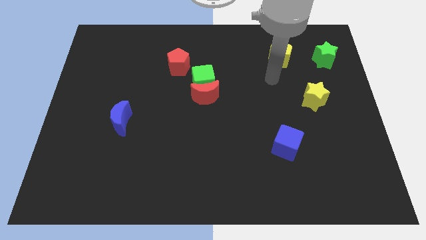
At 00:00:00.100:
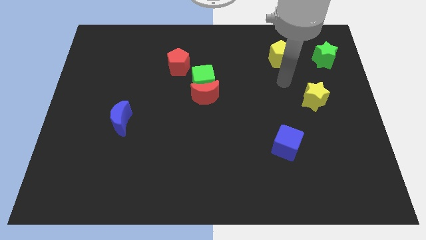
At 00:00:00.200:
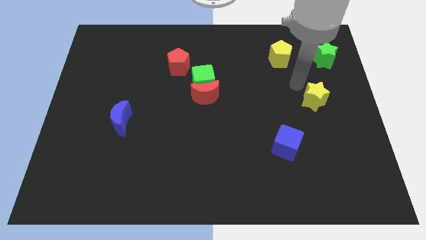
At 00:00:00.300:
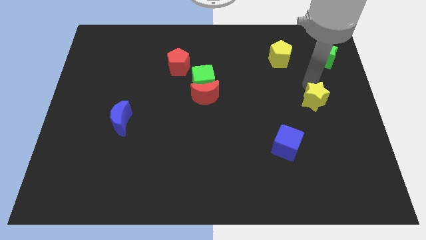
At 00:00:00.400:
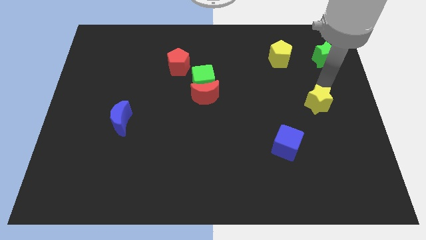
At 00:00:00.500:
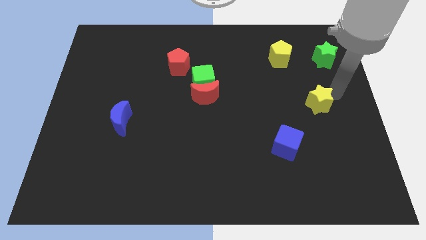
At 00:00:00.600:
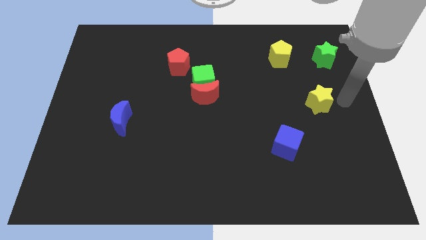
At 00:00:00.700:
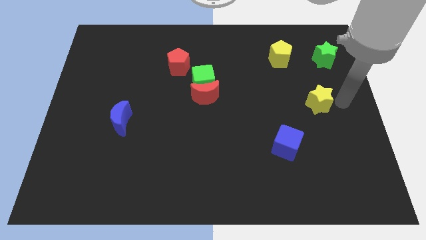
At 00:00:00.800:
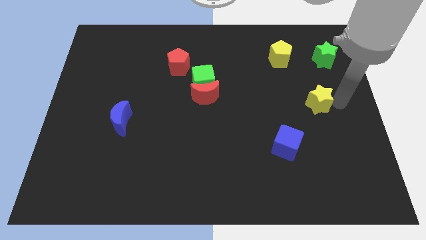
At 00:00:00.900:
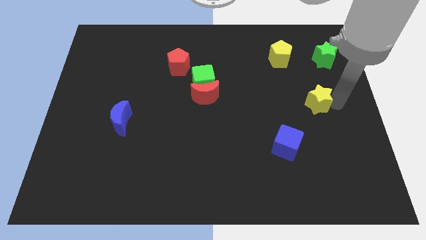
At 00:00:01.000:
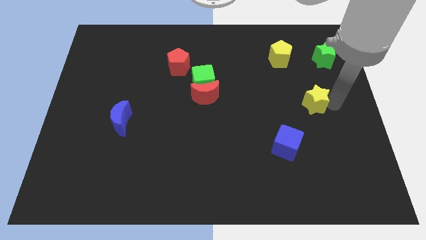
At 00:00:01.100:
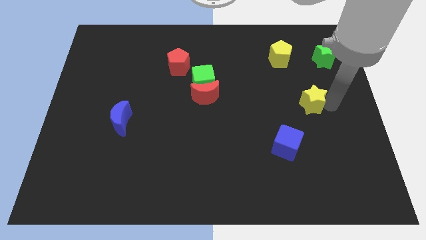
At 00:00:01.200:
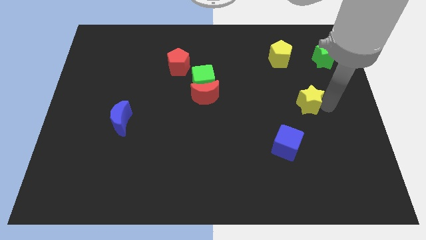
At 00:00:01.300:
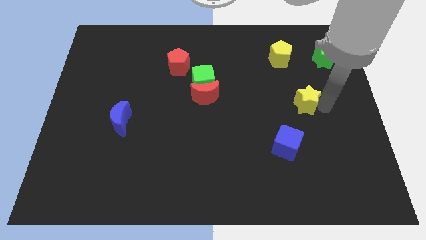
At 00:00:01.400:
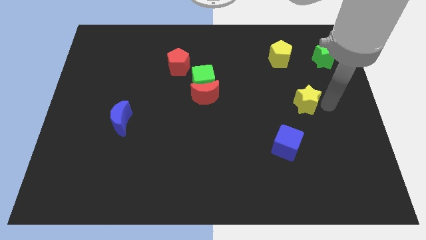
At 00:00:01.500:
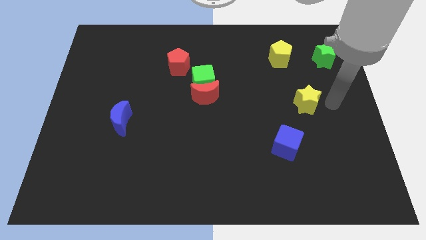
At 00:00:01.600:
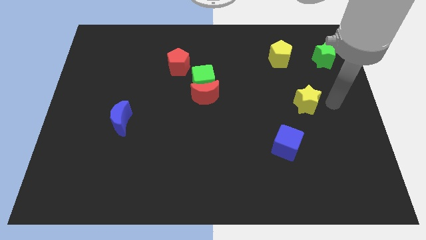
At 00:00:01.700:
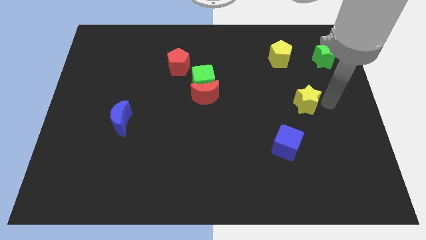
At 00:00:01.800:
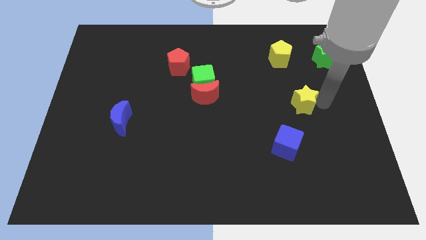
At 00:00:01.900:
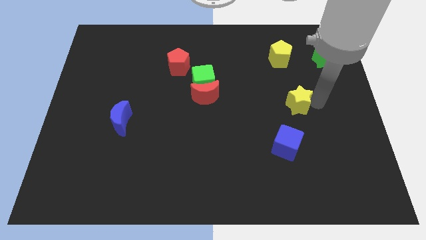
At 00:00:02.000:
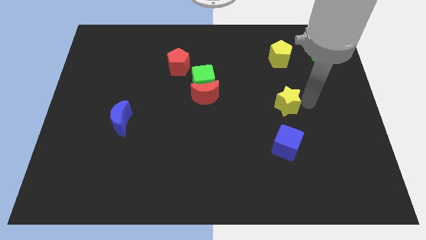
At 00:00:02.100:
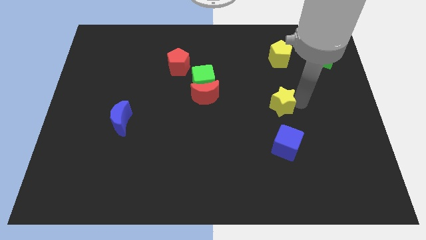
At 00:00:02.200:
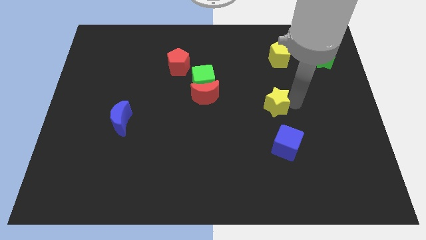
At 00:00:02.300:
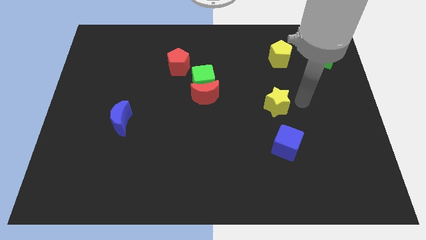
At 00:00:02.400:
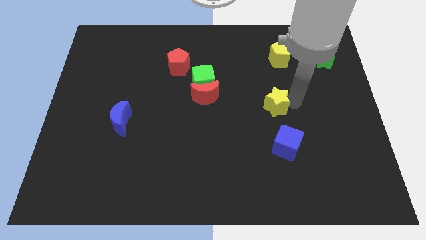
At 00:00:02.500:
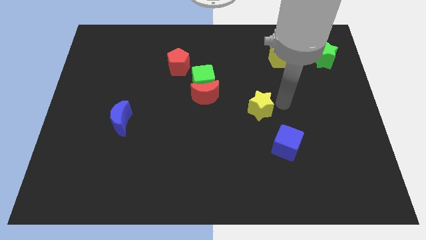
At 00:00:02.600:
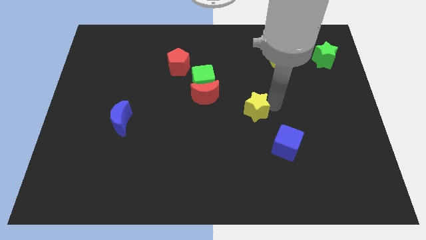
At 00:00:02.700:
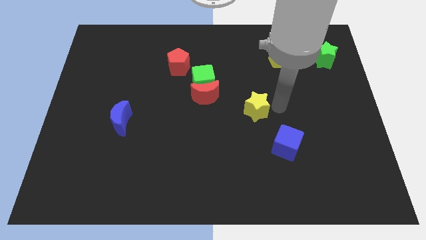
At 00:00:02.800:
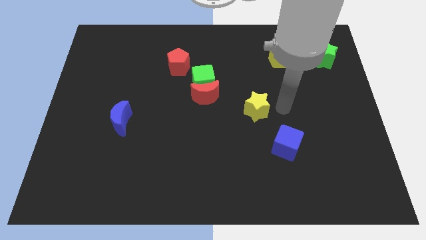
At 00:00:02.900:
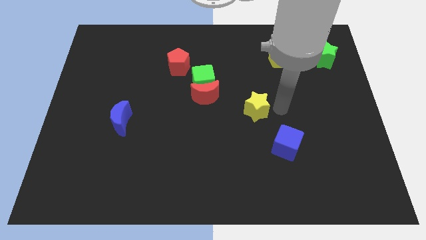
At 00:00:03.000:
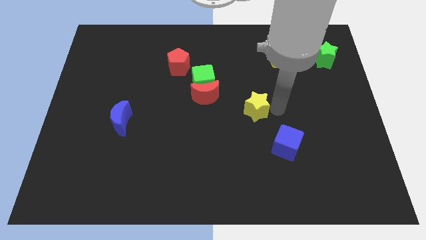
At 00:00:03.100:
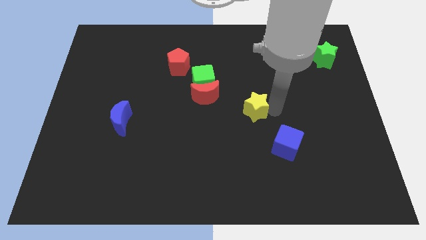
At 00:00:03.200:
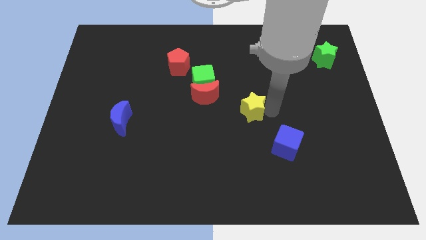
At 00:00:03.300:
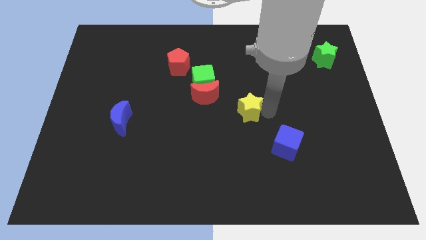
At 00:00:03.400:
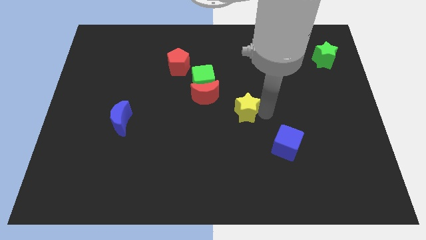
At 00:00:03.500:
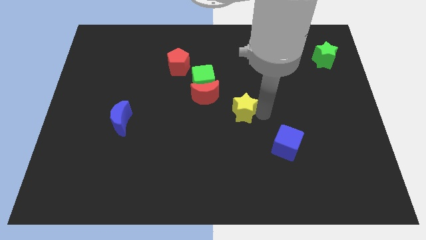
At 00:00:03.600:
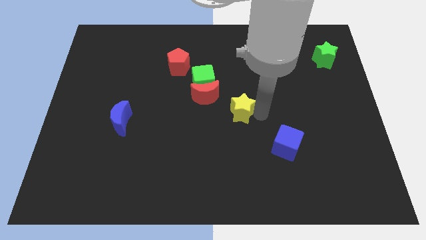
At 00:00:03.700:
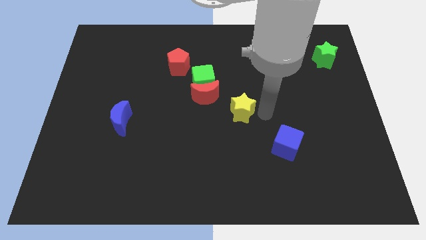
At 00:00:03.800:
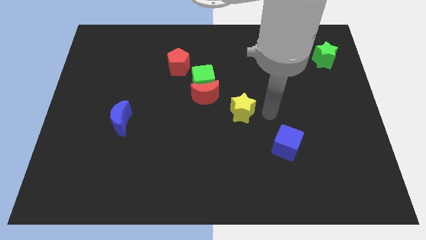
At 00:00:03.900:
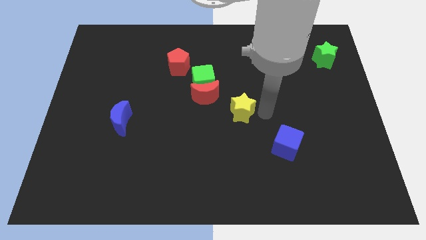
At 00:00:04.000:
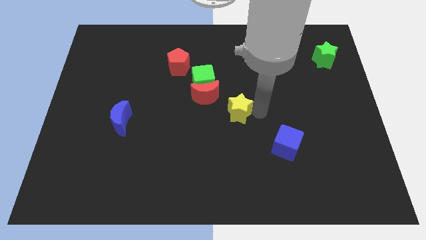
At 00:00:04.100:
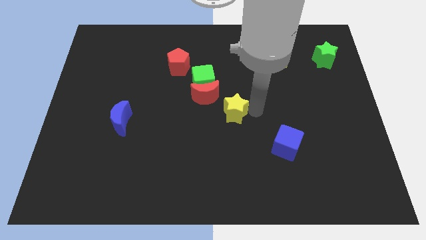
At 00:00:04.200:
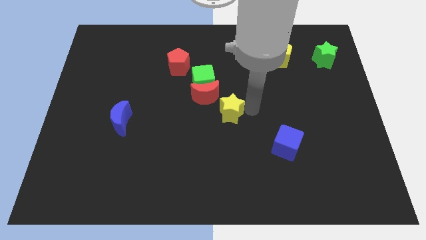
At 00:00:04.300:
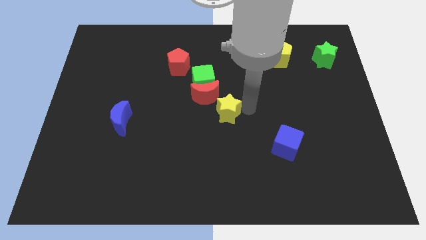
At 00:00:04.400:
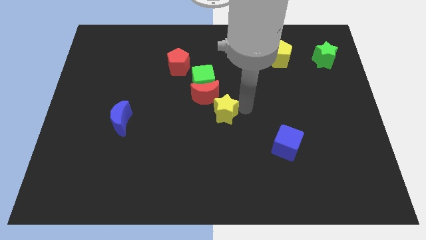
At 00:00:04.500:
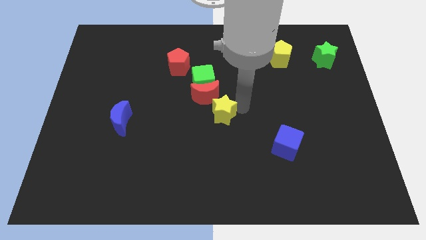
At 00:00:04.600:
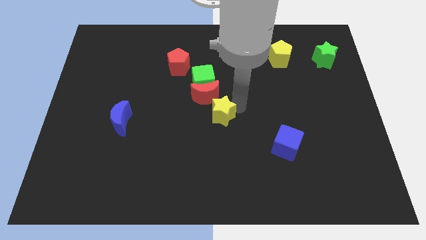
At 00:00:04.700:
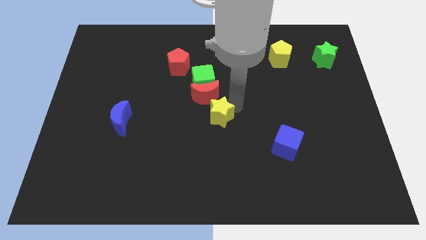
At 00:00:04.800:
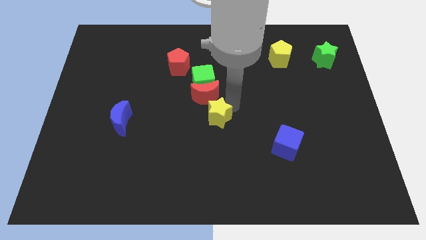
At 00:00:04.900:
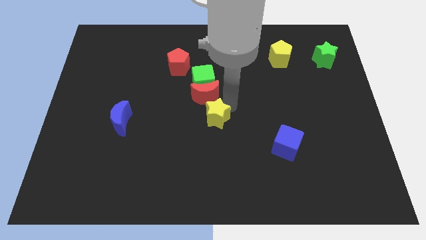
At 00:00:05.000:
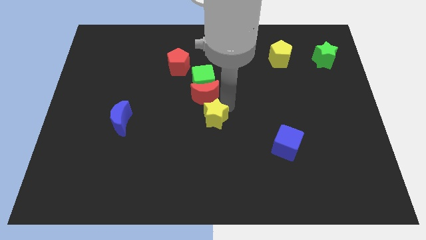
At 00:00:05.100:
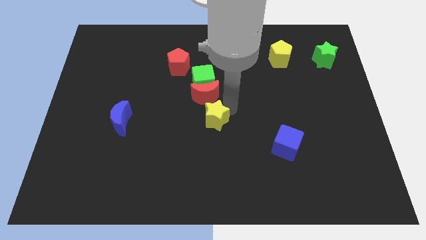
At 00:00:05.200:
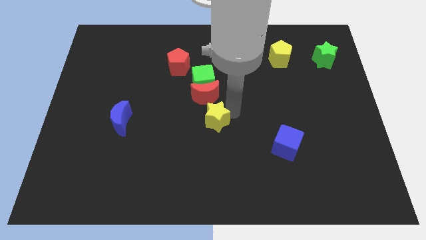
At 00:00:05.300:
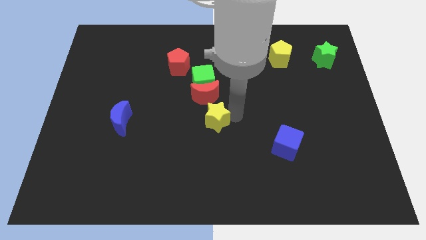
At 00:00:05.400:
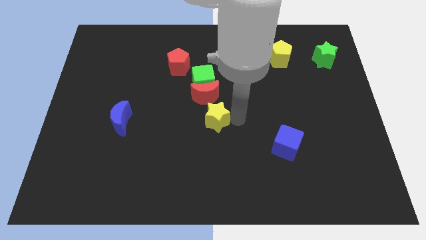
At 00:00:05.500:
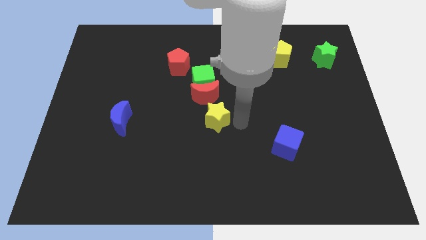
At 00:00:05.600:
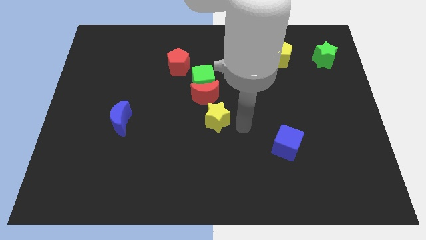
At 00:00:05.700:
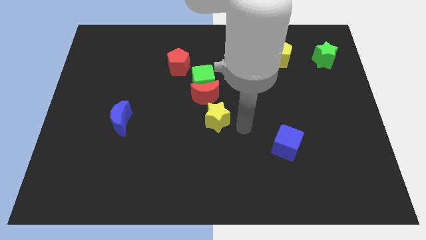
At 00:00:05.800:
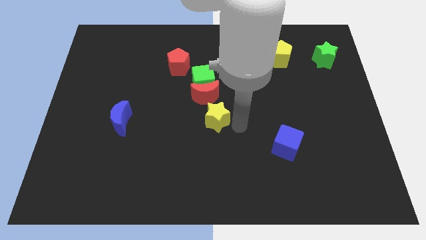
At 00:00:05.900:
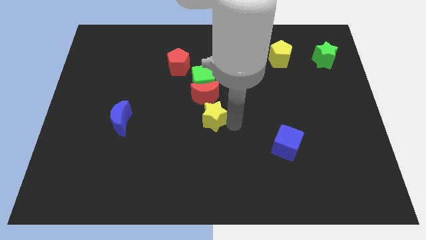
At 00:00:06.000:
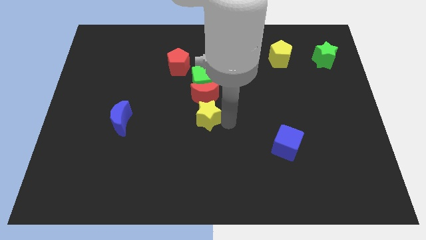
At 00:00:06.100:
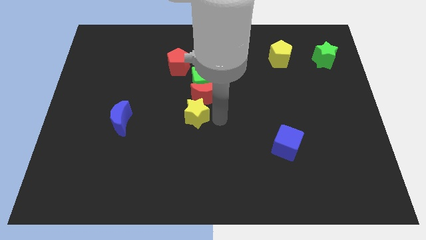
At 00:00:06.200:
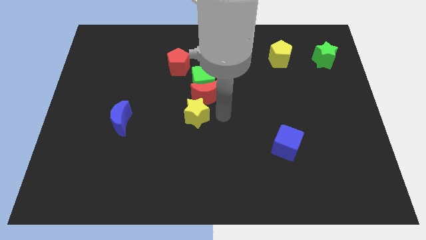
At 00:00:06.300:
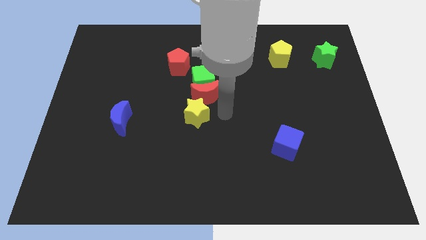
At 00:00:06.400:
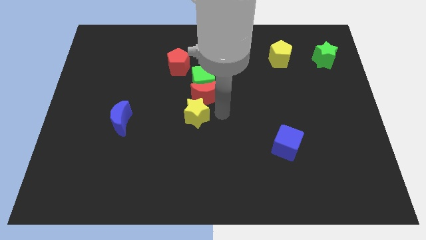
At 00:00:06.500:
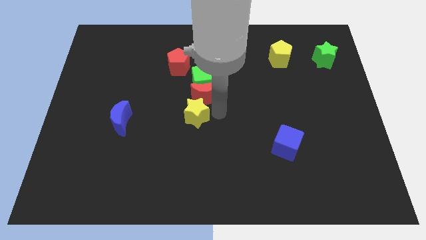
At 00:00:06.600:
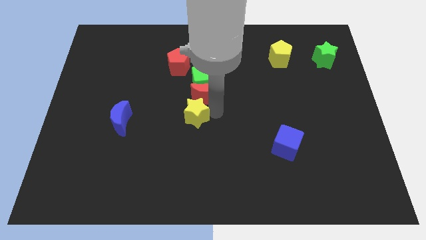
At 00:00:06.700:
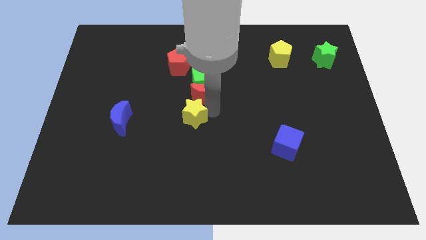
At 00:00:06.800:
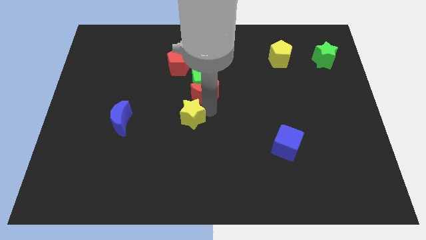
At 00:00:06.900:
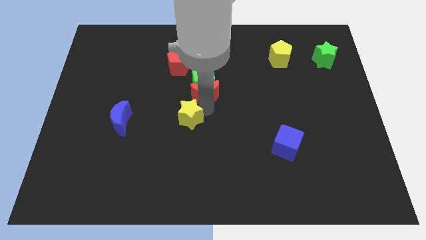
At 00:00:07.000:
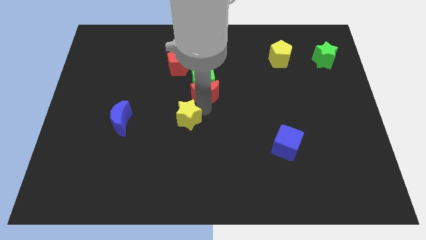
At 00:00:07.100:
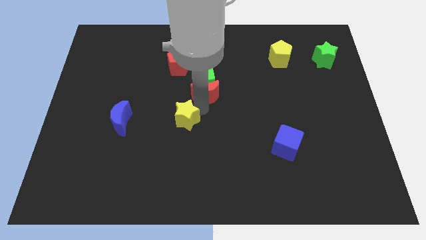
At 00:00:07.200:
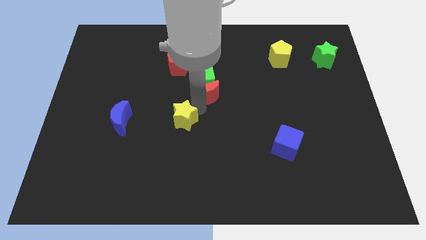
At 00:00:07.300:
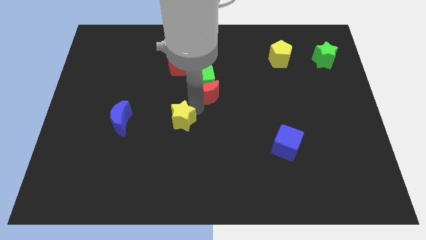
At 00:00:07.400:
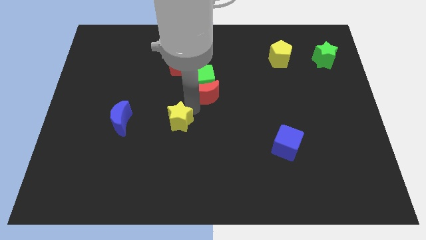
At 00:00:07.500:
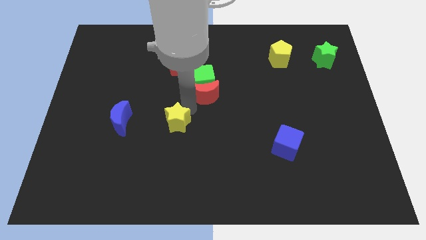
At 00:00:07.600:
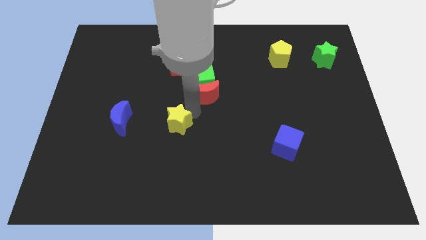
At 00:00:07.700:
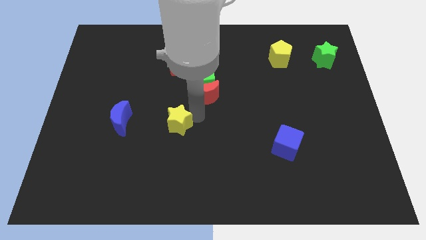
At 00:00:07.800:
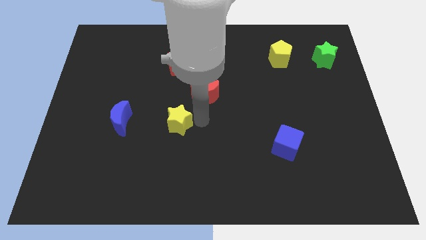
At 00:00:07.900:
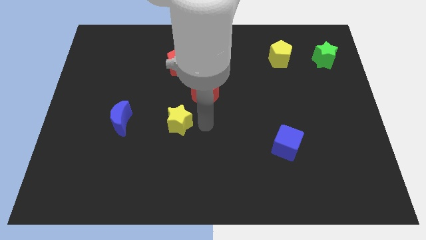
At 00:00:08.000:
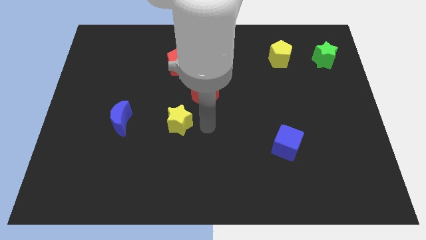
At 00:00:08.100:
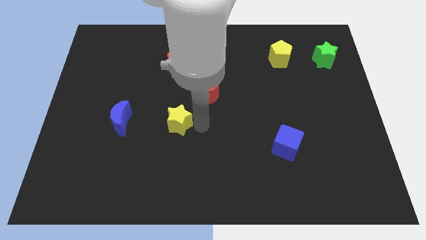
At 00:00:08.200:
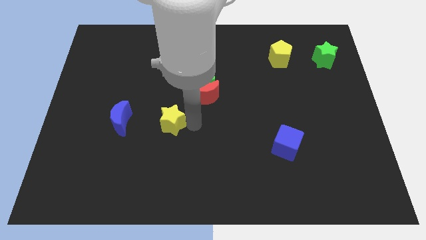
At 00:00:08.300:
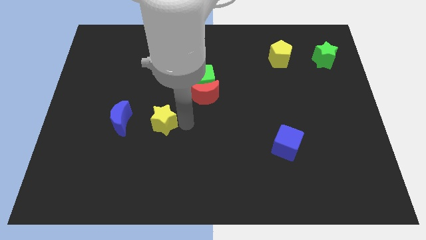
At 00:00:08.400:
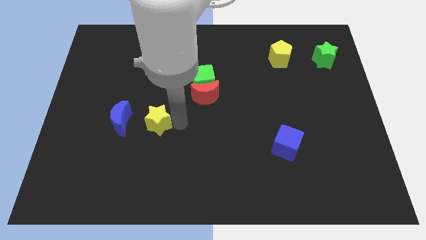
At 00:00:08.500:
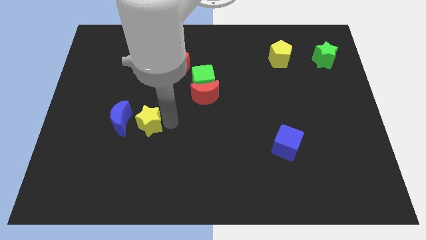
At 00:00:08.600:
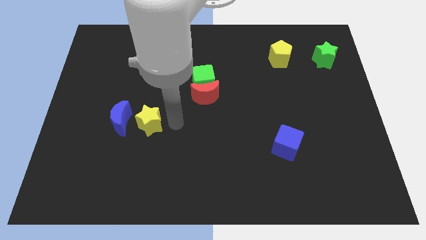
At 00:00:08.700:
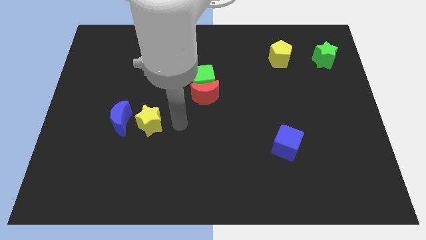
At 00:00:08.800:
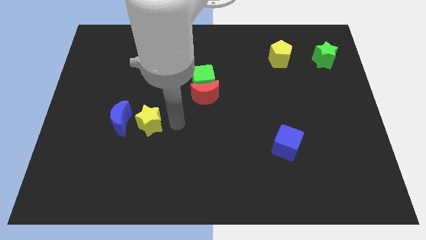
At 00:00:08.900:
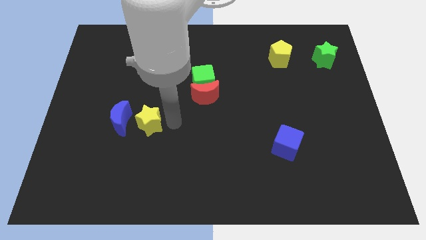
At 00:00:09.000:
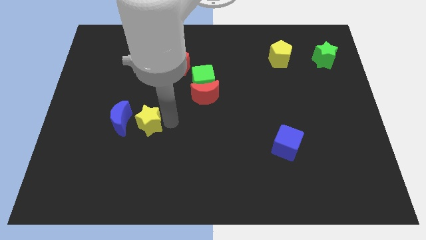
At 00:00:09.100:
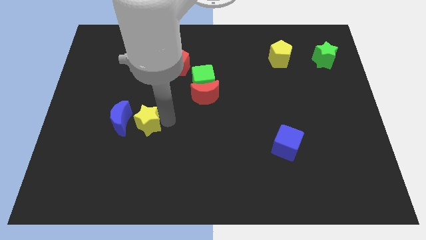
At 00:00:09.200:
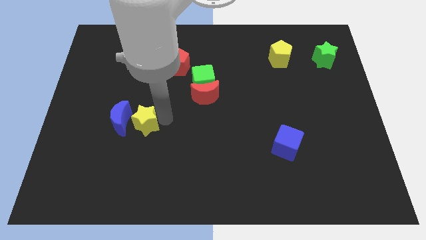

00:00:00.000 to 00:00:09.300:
move the yellow star towards the blue moon
